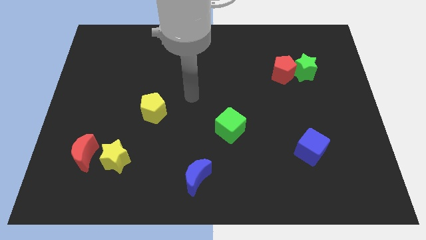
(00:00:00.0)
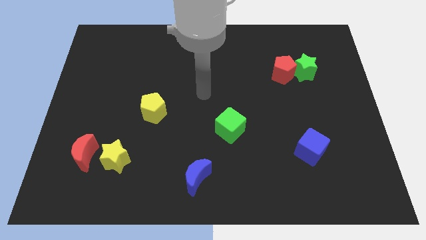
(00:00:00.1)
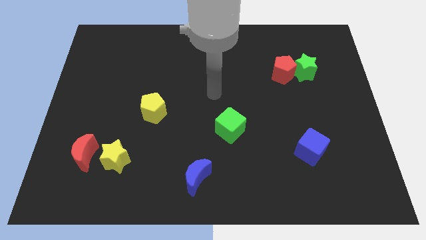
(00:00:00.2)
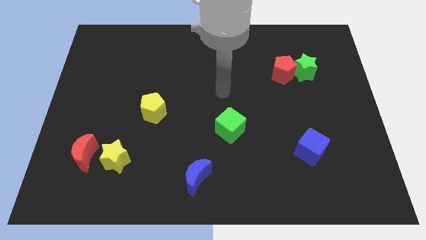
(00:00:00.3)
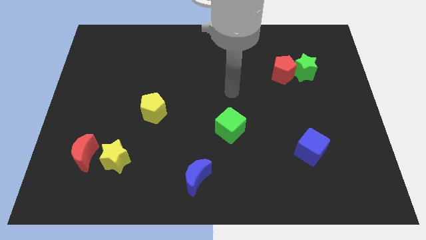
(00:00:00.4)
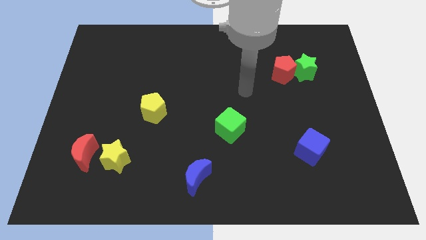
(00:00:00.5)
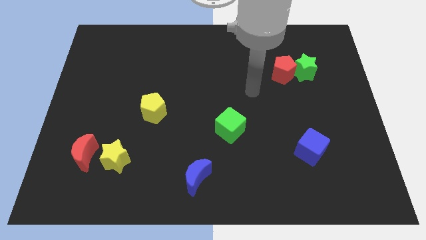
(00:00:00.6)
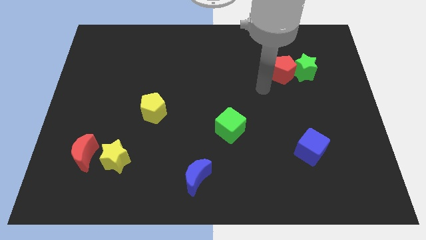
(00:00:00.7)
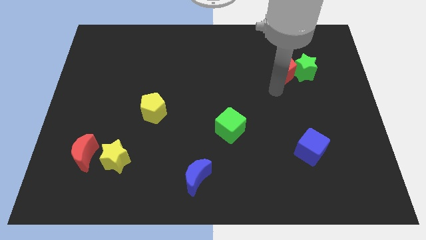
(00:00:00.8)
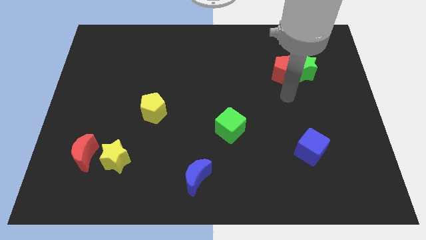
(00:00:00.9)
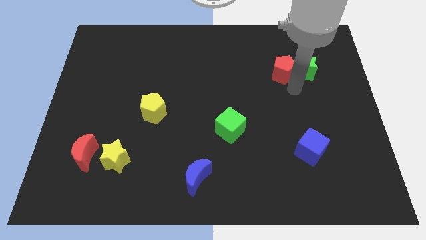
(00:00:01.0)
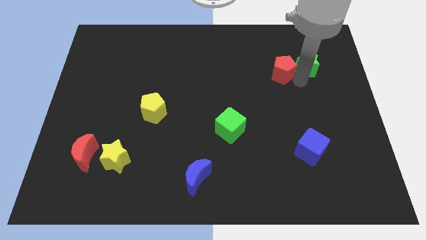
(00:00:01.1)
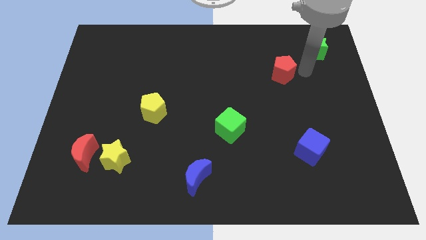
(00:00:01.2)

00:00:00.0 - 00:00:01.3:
pull the red pentagon apart from the green star

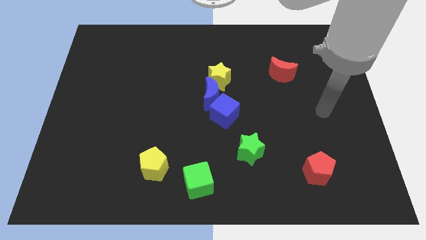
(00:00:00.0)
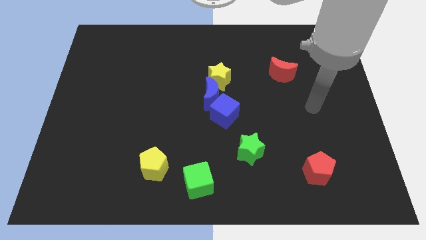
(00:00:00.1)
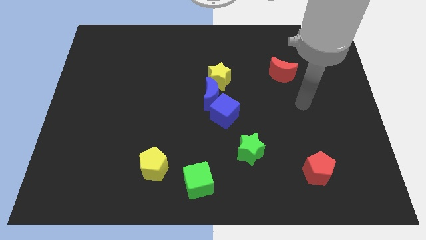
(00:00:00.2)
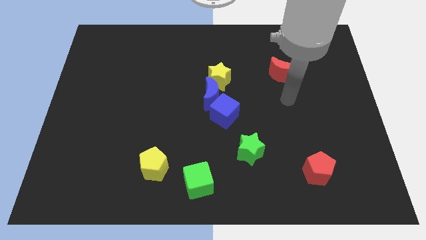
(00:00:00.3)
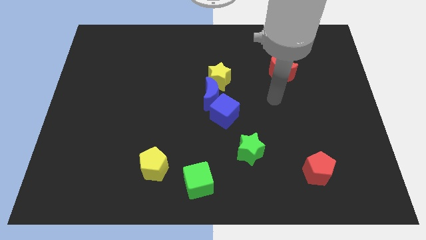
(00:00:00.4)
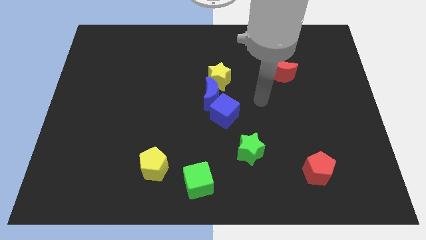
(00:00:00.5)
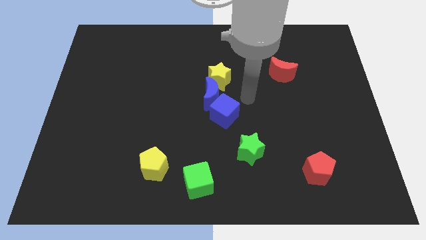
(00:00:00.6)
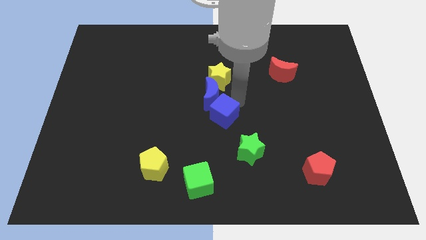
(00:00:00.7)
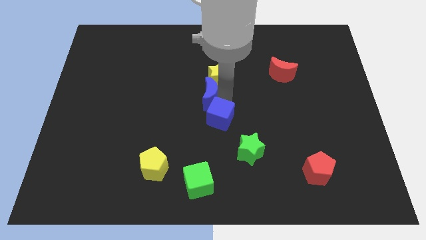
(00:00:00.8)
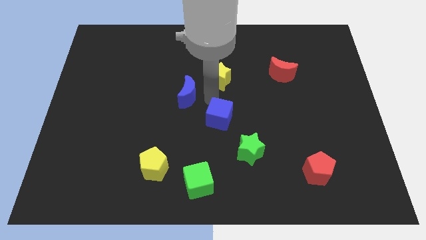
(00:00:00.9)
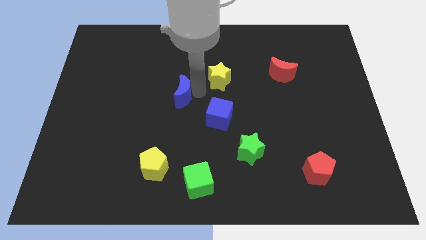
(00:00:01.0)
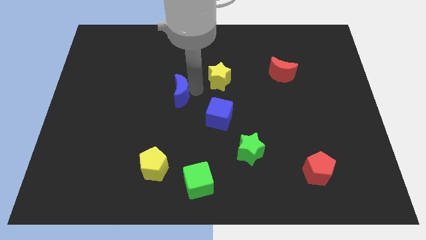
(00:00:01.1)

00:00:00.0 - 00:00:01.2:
pull the yellow star apart from the blue moon

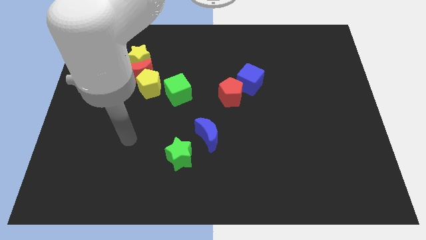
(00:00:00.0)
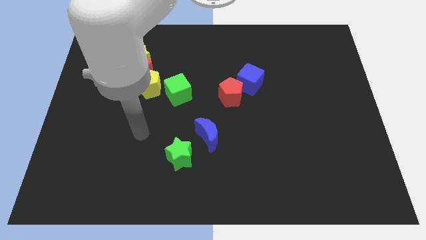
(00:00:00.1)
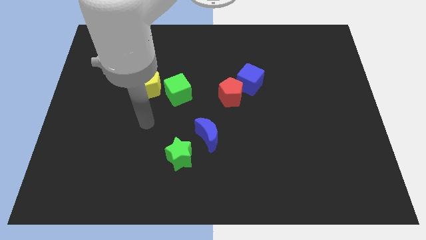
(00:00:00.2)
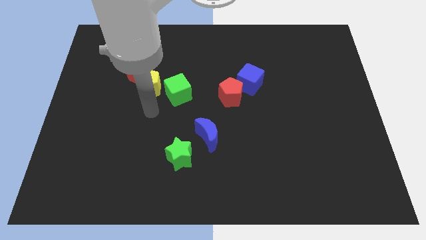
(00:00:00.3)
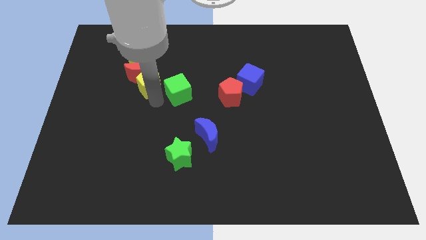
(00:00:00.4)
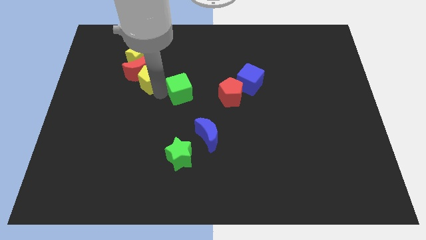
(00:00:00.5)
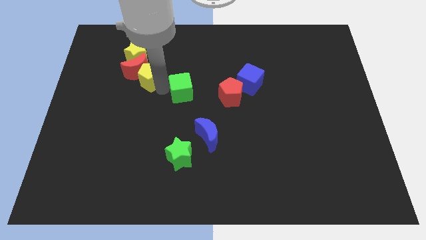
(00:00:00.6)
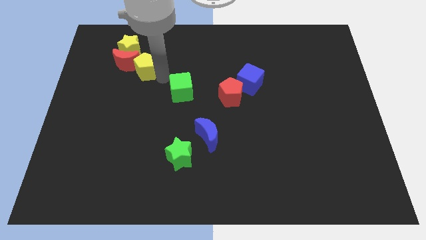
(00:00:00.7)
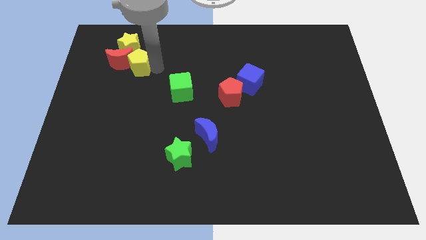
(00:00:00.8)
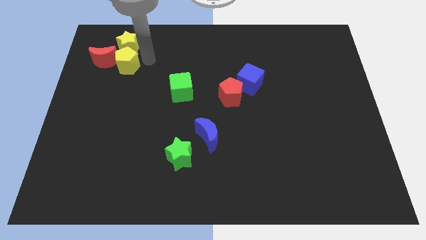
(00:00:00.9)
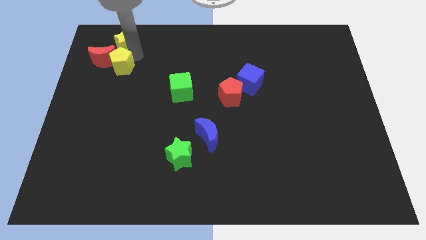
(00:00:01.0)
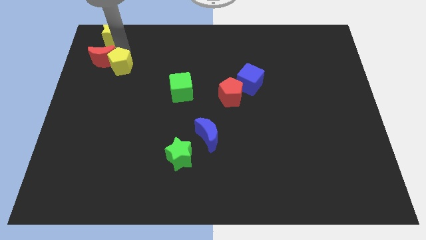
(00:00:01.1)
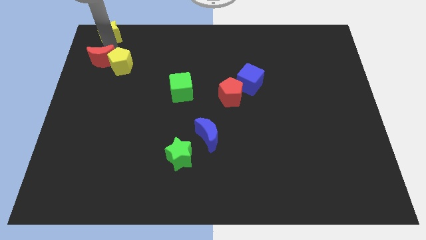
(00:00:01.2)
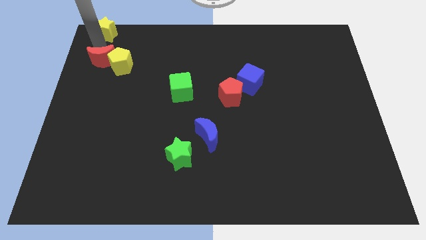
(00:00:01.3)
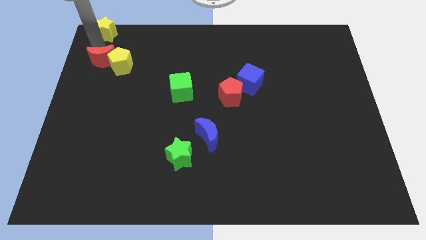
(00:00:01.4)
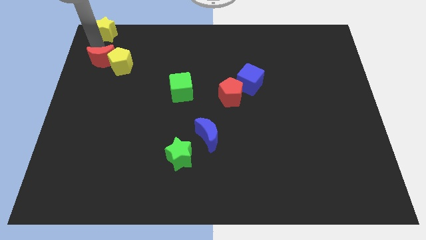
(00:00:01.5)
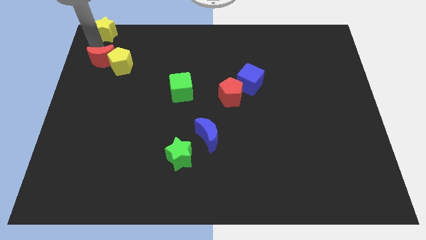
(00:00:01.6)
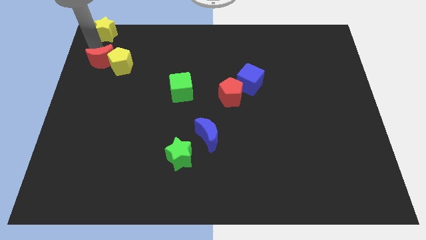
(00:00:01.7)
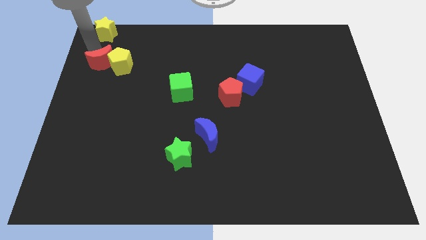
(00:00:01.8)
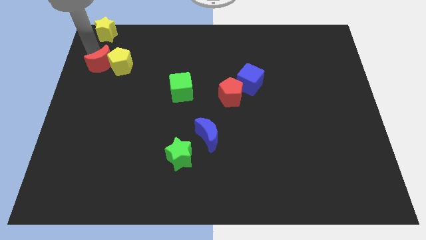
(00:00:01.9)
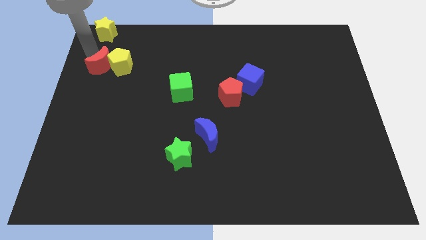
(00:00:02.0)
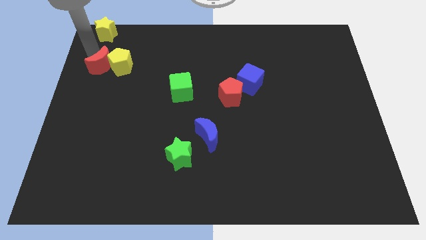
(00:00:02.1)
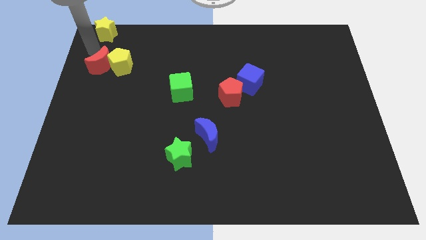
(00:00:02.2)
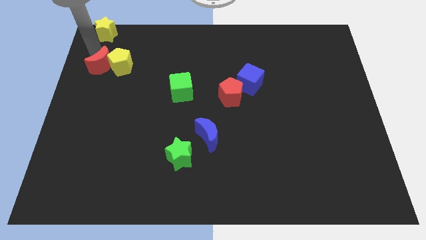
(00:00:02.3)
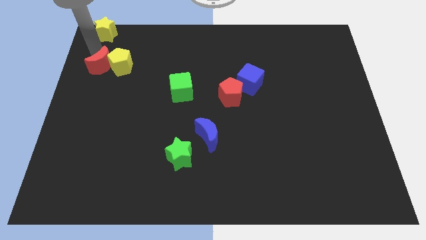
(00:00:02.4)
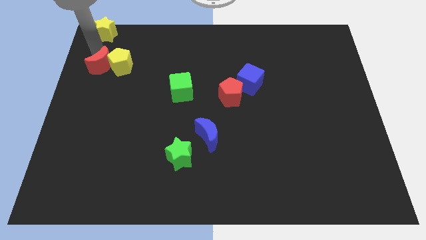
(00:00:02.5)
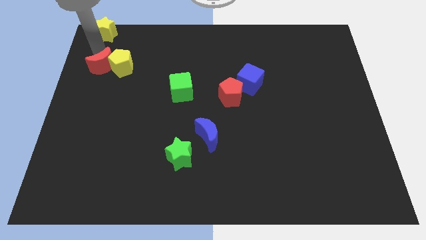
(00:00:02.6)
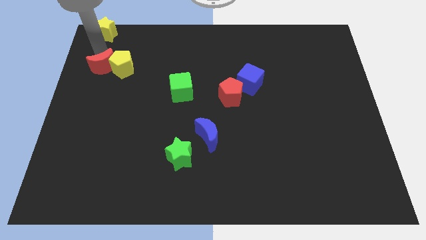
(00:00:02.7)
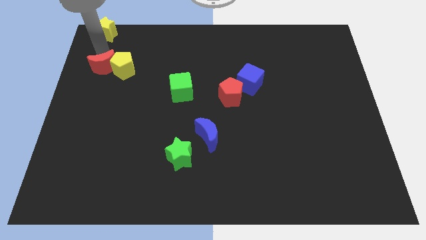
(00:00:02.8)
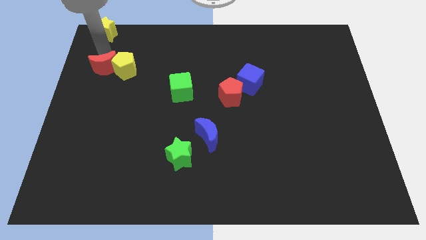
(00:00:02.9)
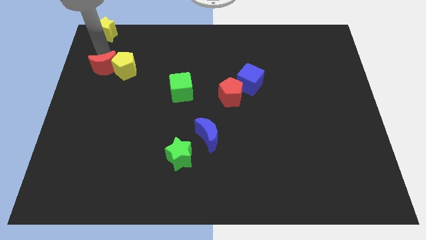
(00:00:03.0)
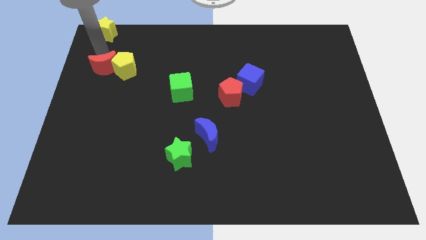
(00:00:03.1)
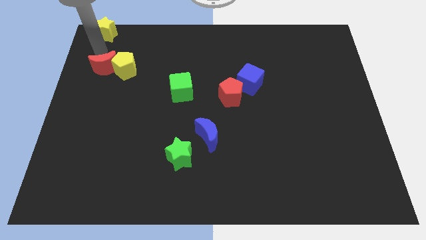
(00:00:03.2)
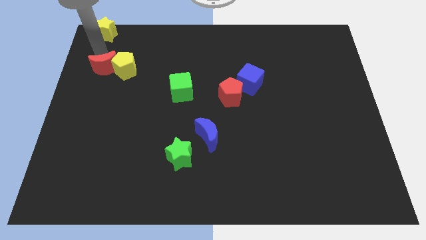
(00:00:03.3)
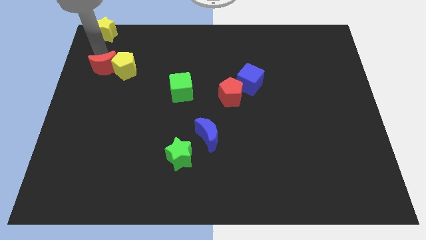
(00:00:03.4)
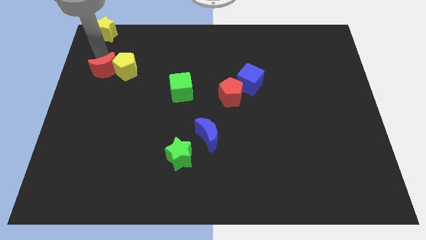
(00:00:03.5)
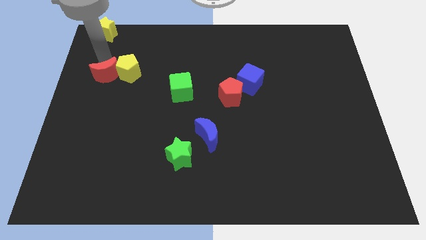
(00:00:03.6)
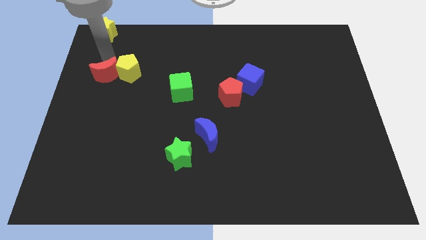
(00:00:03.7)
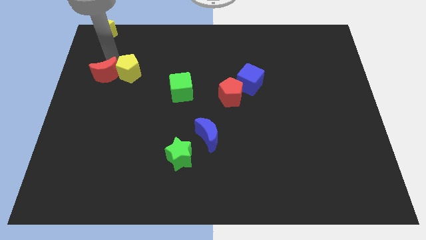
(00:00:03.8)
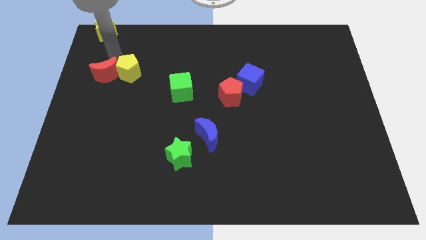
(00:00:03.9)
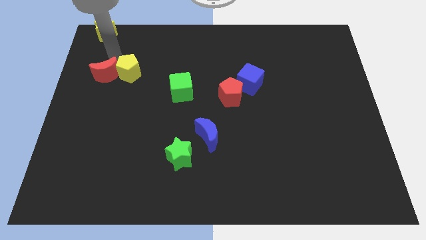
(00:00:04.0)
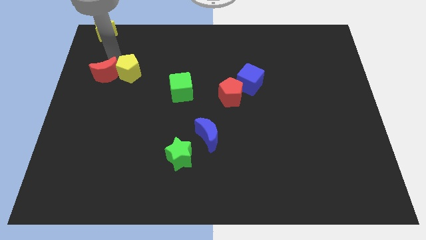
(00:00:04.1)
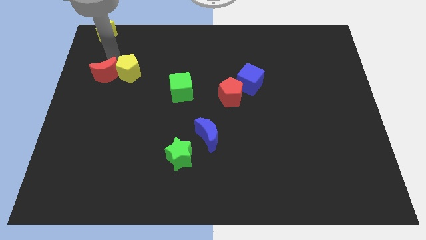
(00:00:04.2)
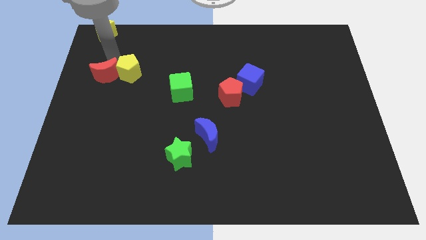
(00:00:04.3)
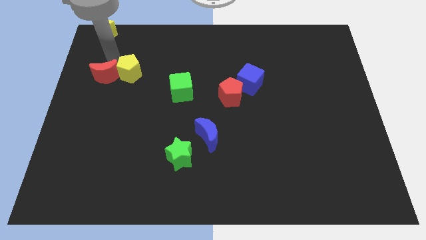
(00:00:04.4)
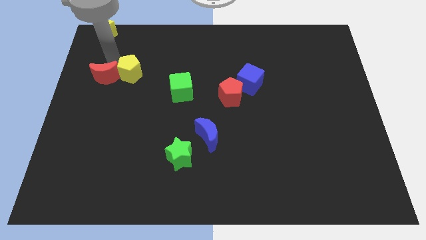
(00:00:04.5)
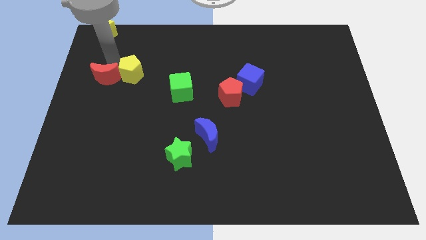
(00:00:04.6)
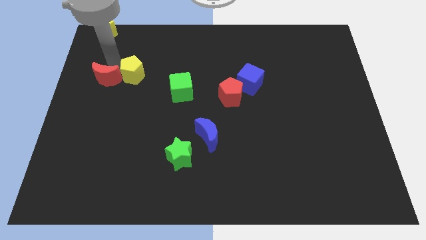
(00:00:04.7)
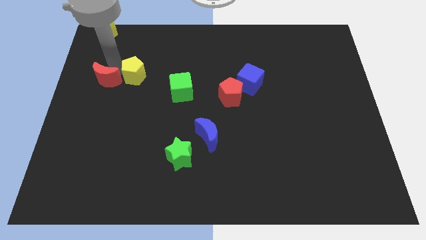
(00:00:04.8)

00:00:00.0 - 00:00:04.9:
separate the red moon from the yellow pentagon and yellow star

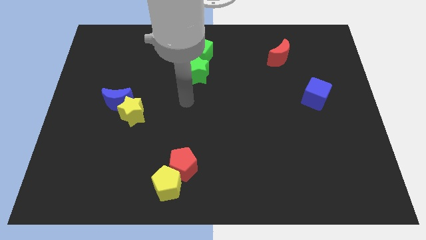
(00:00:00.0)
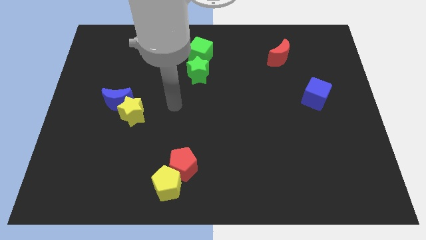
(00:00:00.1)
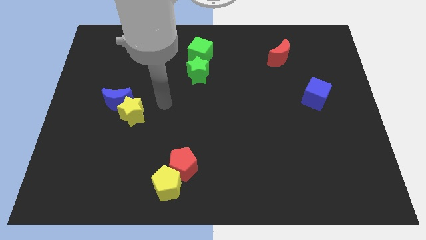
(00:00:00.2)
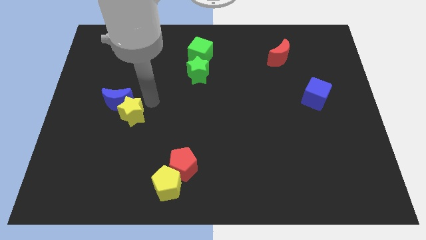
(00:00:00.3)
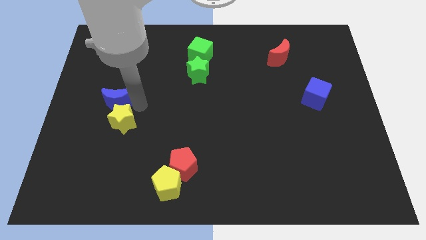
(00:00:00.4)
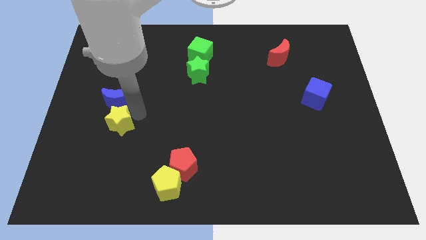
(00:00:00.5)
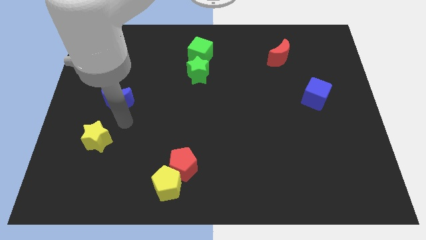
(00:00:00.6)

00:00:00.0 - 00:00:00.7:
move the blue moon away from the yellow star

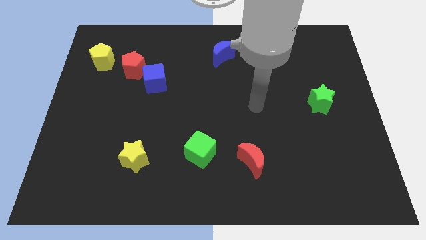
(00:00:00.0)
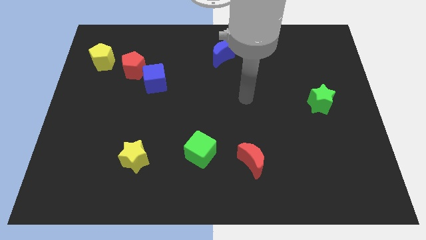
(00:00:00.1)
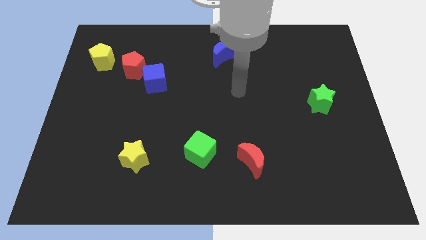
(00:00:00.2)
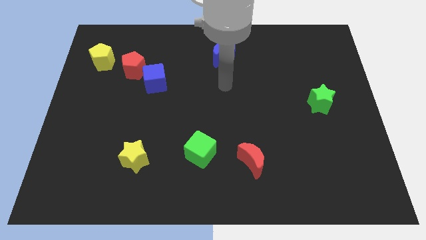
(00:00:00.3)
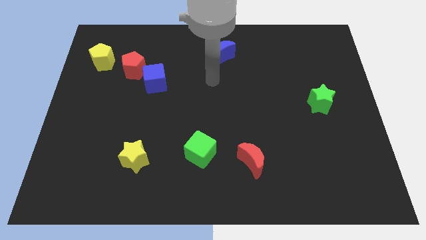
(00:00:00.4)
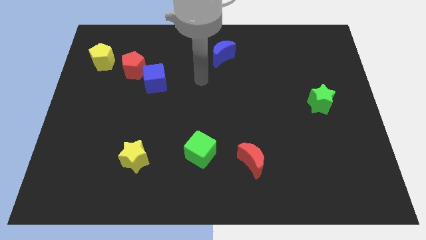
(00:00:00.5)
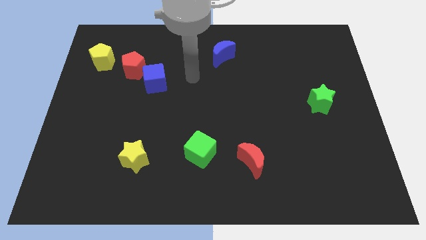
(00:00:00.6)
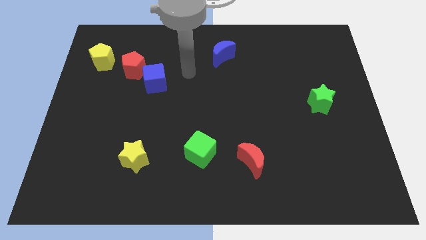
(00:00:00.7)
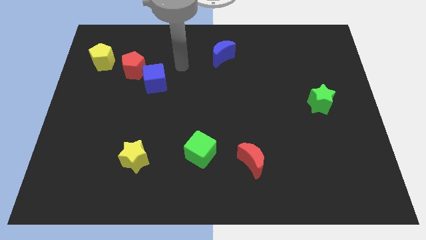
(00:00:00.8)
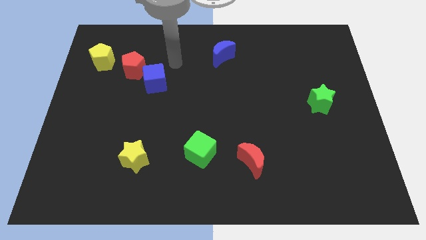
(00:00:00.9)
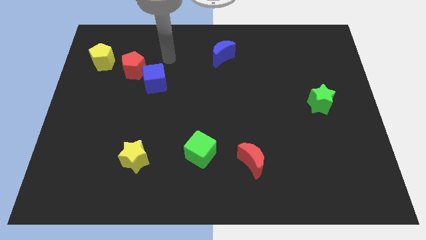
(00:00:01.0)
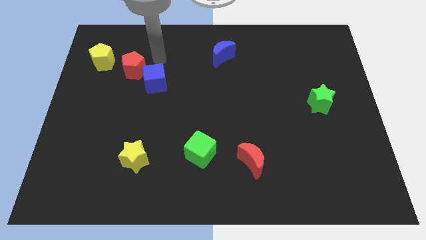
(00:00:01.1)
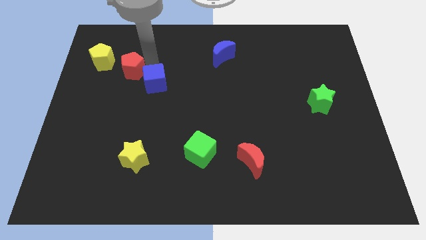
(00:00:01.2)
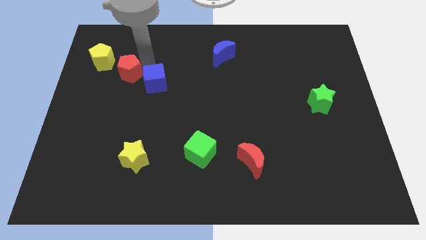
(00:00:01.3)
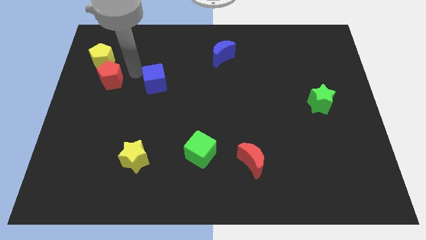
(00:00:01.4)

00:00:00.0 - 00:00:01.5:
pull the blue cube apart from the red pentagon
